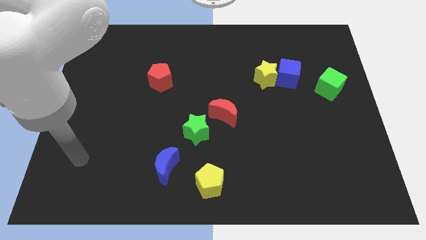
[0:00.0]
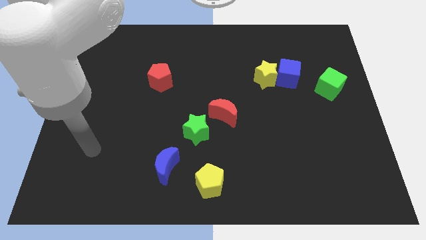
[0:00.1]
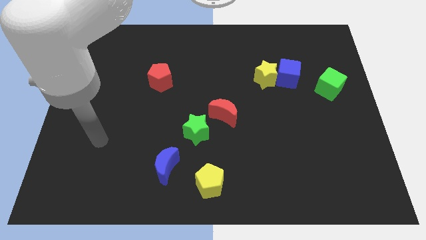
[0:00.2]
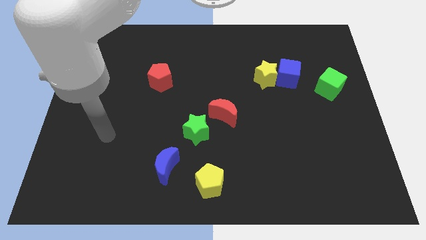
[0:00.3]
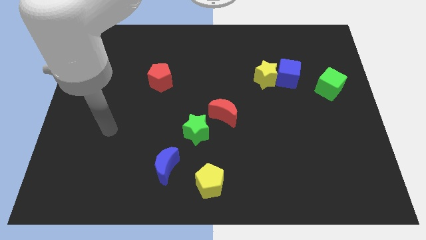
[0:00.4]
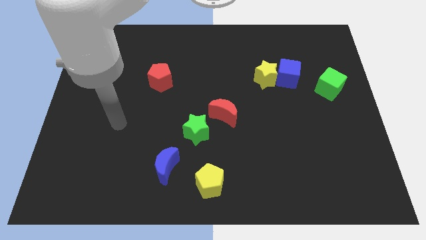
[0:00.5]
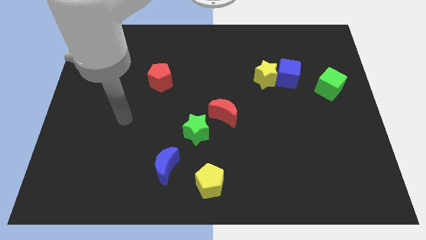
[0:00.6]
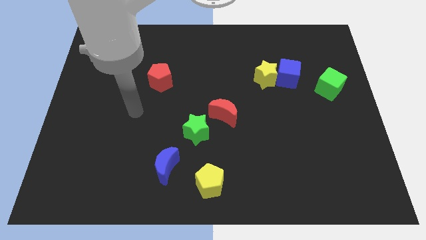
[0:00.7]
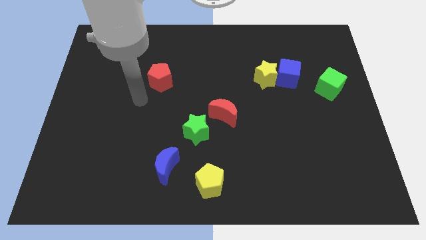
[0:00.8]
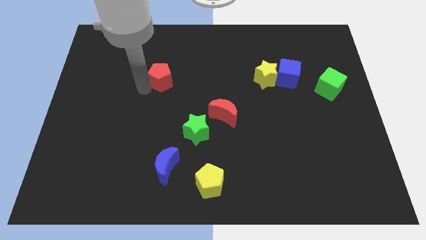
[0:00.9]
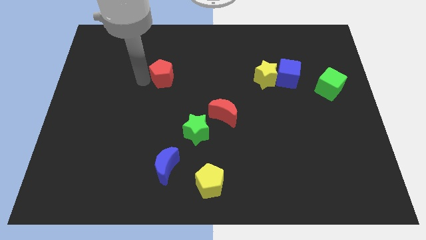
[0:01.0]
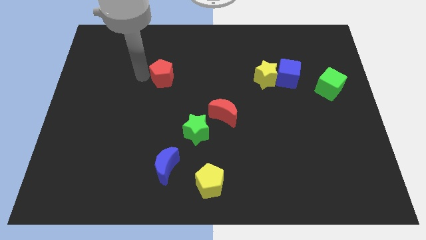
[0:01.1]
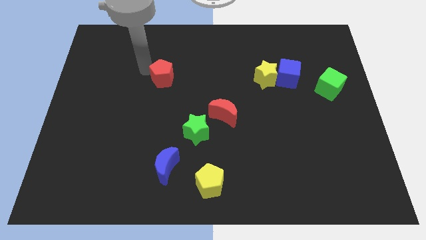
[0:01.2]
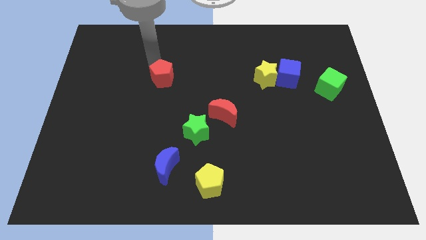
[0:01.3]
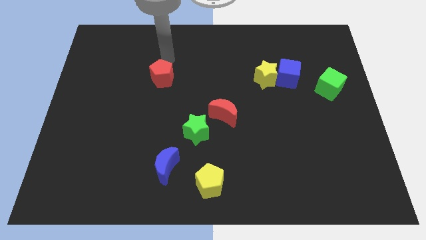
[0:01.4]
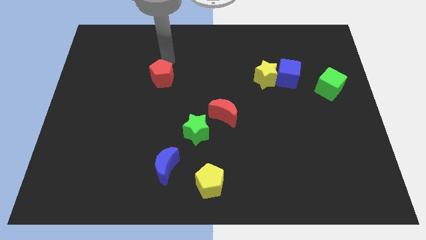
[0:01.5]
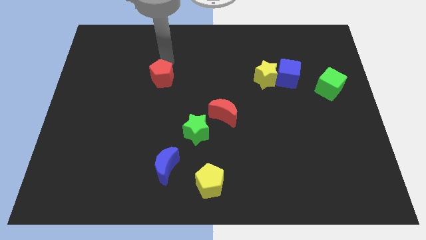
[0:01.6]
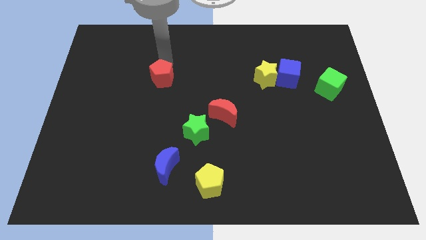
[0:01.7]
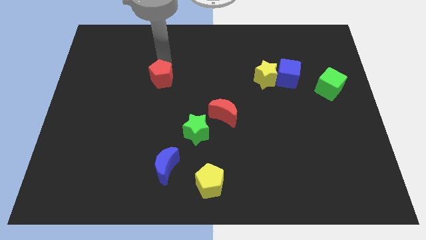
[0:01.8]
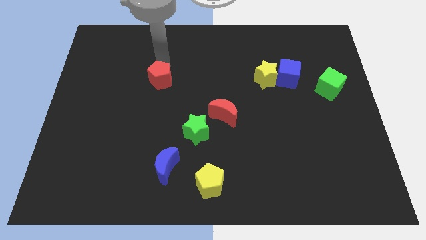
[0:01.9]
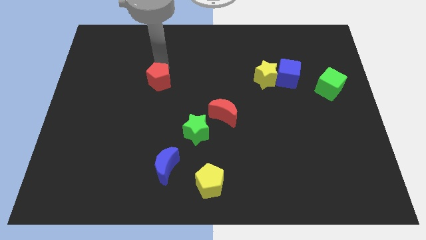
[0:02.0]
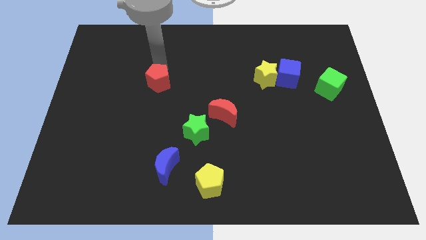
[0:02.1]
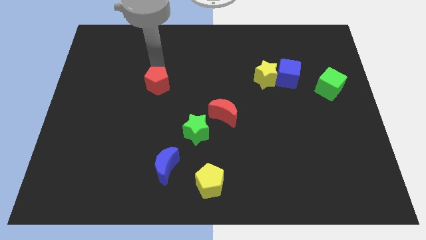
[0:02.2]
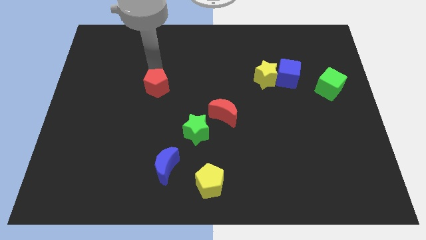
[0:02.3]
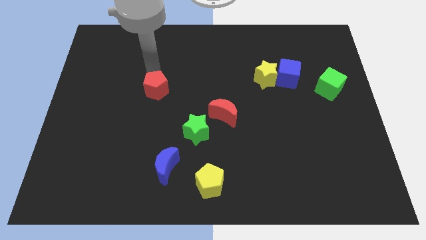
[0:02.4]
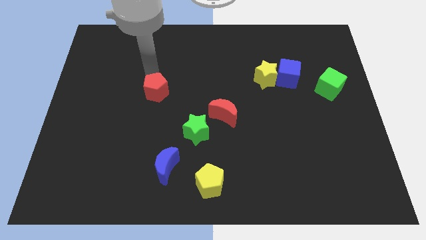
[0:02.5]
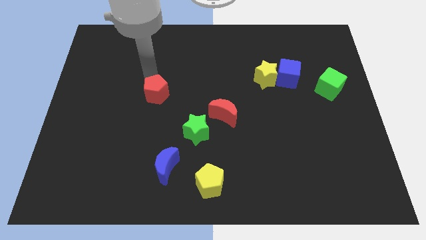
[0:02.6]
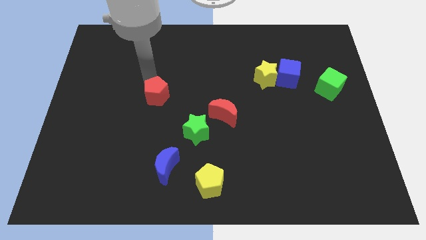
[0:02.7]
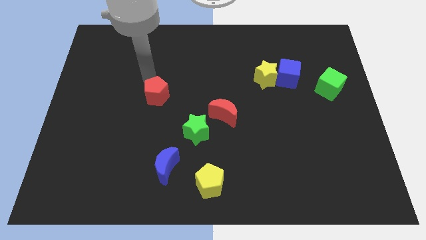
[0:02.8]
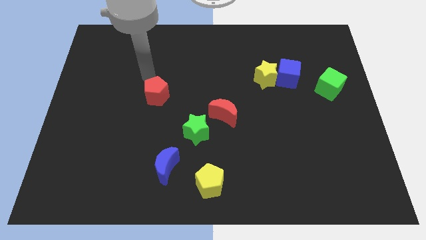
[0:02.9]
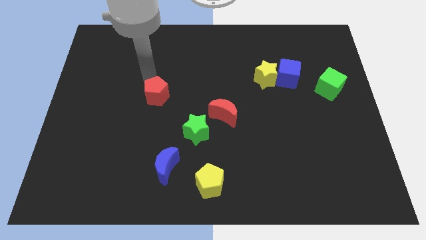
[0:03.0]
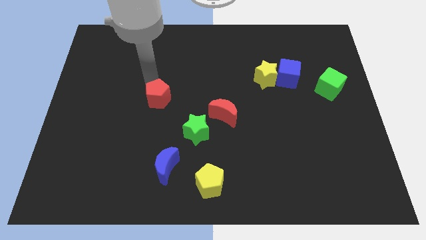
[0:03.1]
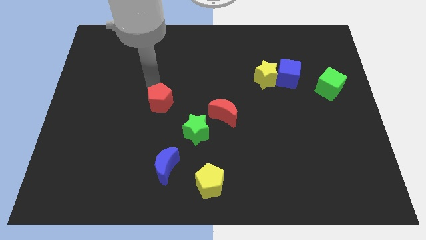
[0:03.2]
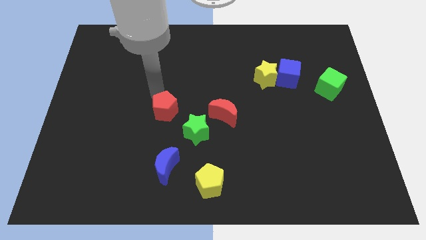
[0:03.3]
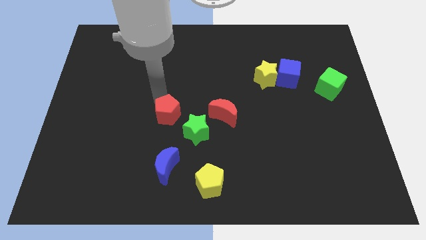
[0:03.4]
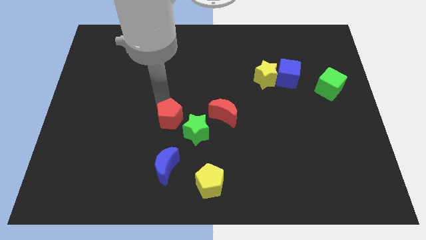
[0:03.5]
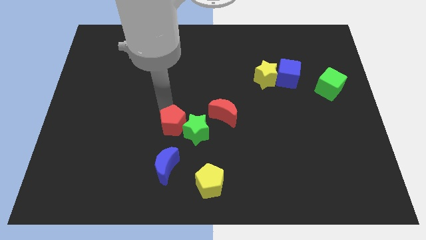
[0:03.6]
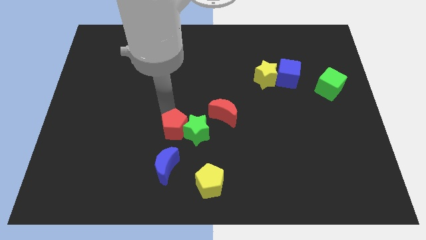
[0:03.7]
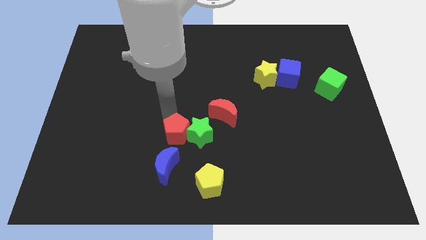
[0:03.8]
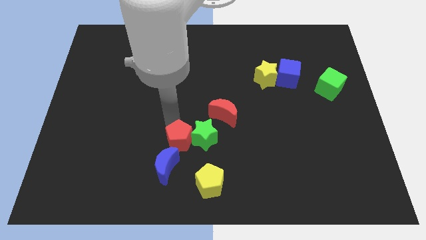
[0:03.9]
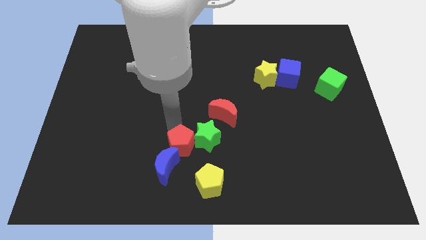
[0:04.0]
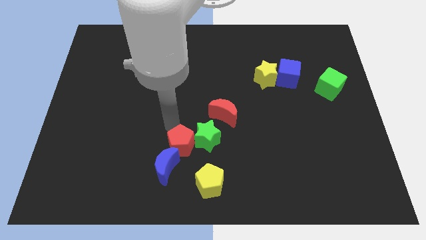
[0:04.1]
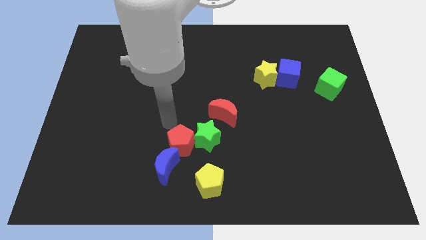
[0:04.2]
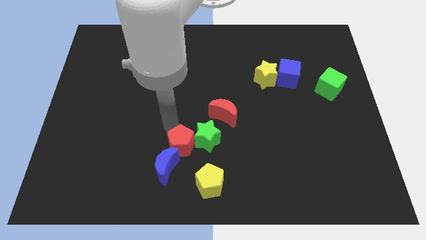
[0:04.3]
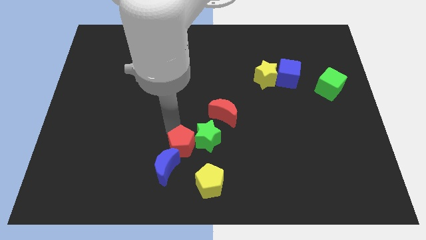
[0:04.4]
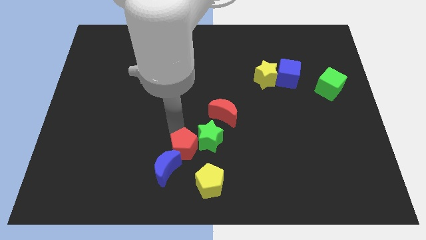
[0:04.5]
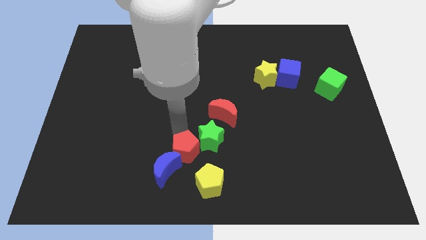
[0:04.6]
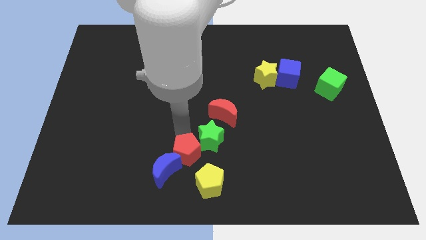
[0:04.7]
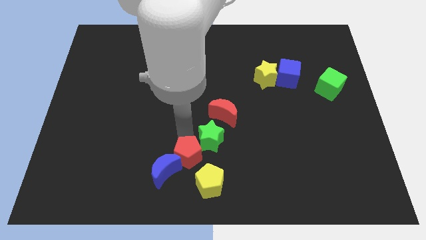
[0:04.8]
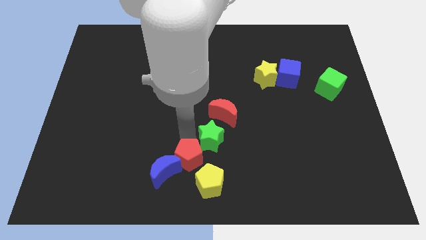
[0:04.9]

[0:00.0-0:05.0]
push the red pentagon to the bottom

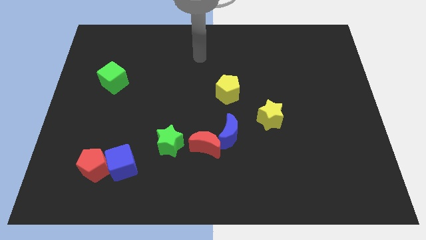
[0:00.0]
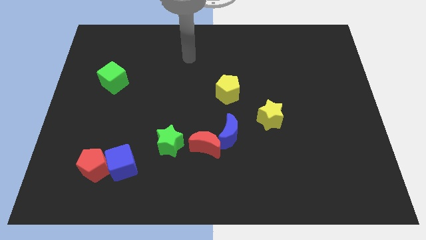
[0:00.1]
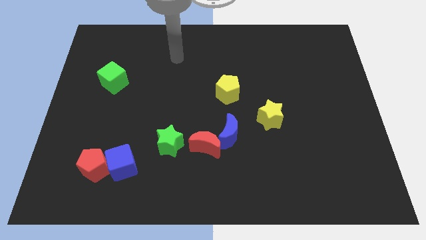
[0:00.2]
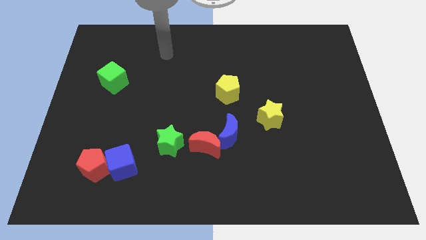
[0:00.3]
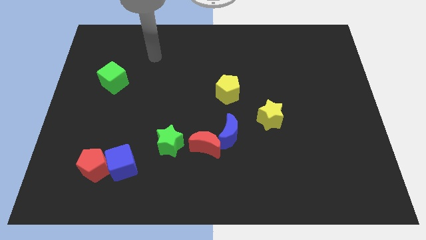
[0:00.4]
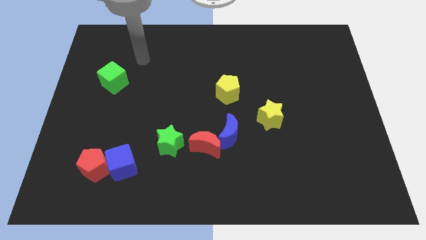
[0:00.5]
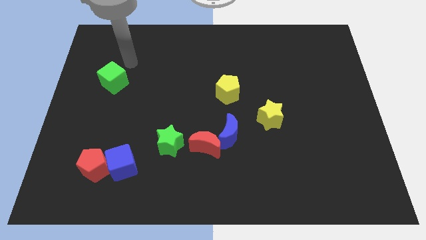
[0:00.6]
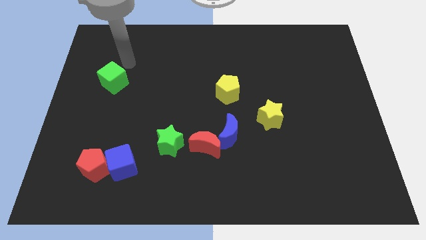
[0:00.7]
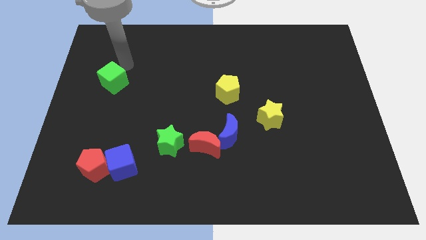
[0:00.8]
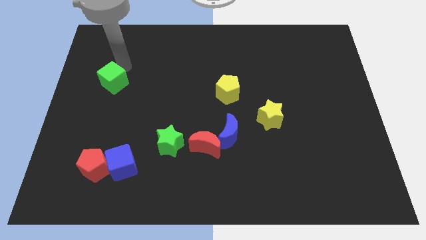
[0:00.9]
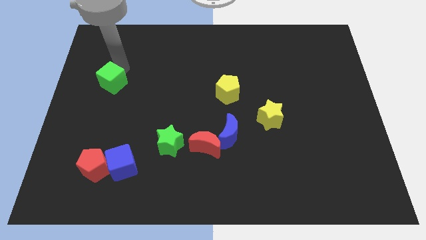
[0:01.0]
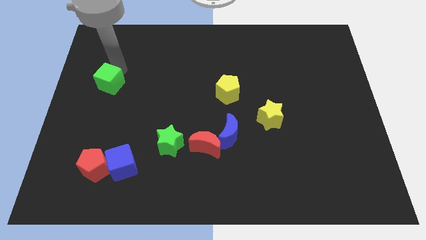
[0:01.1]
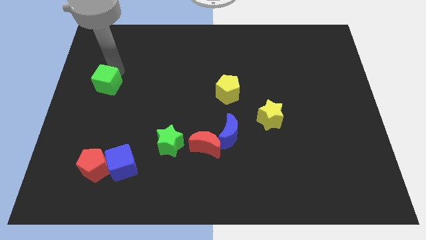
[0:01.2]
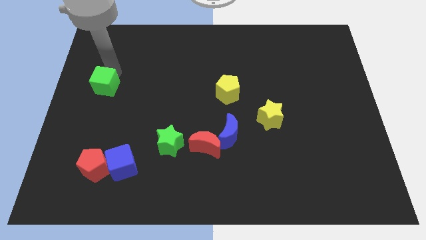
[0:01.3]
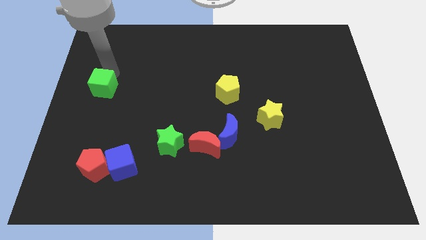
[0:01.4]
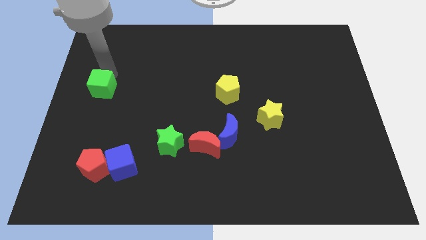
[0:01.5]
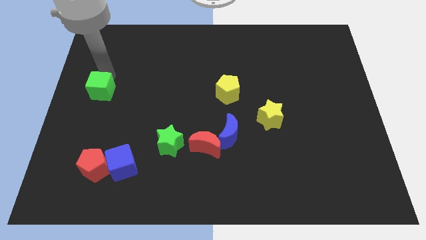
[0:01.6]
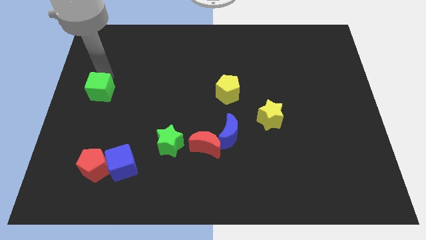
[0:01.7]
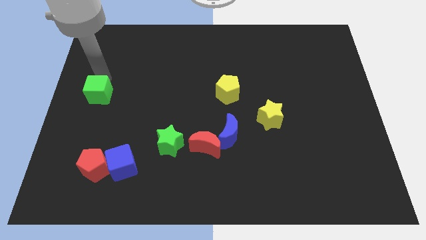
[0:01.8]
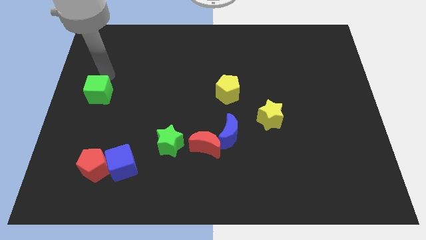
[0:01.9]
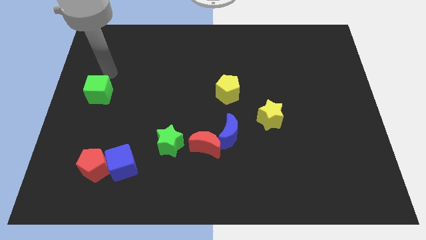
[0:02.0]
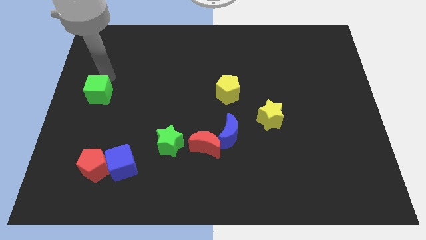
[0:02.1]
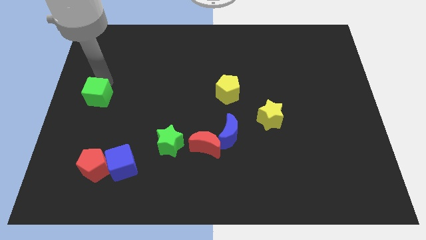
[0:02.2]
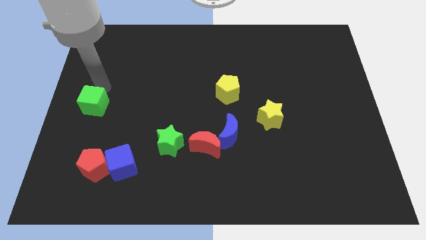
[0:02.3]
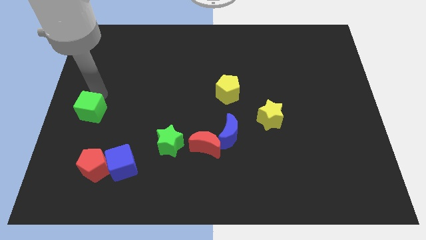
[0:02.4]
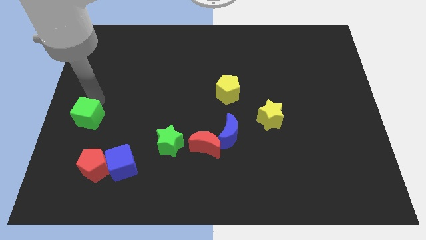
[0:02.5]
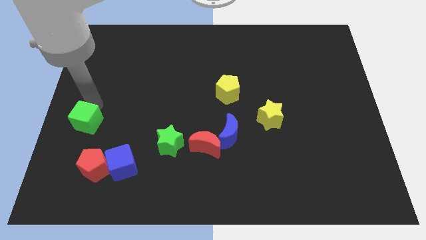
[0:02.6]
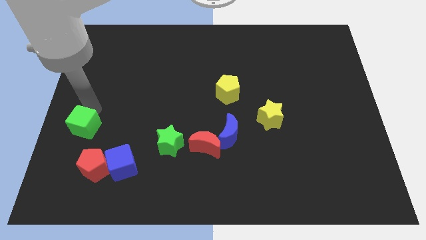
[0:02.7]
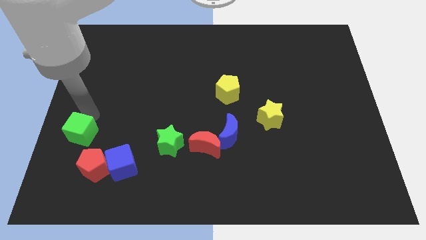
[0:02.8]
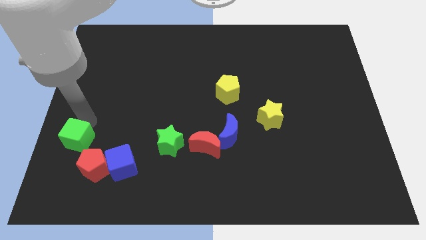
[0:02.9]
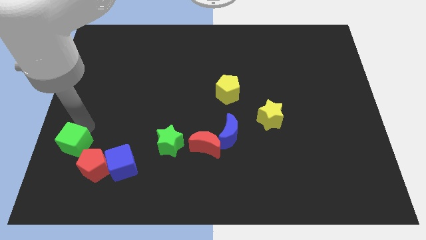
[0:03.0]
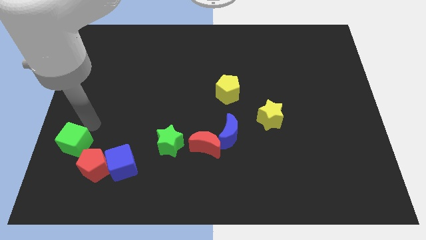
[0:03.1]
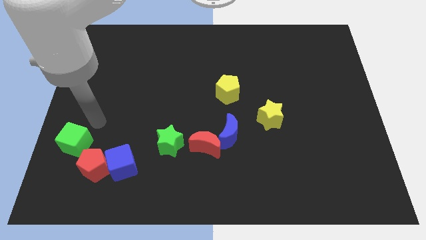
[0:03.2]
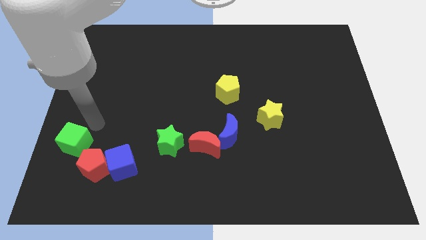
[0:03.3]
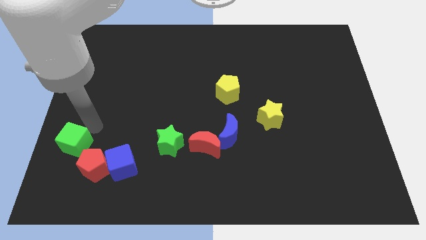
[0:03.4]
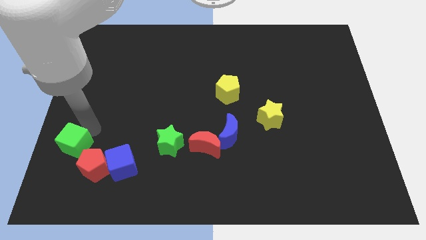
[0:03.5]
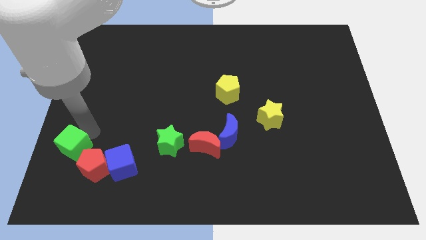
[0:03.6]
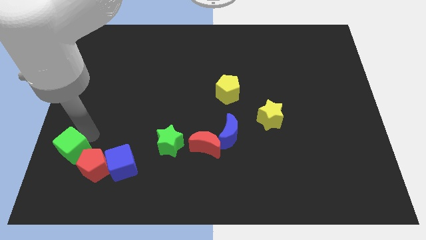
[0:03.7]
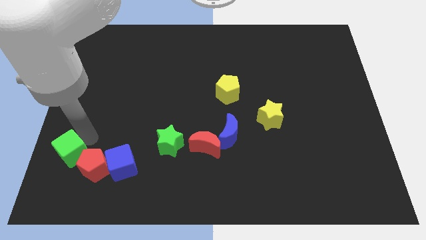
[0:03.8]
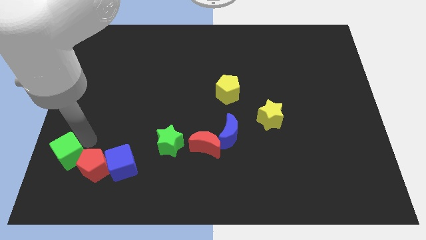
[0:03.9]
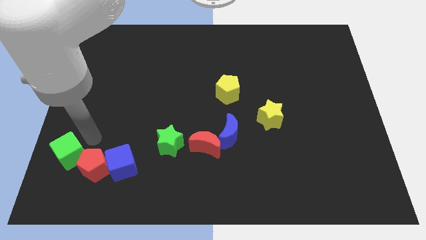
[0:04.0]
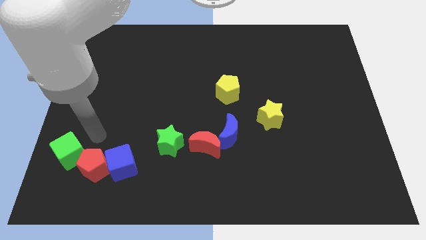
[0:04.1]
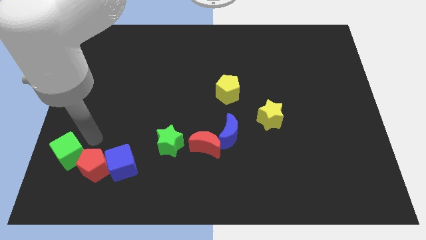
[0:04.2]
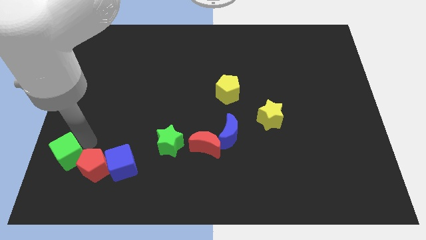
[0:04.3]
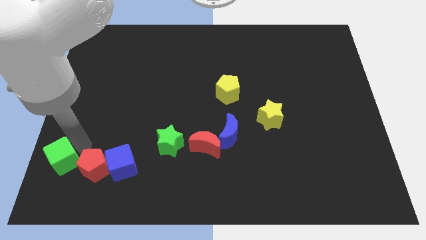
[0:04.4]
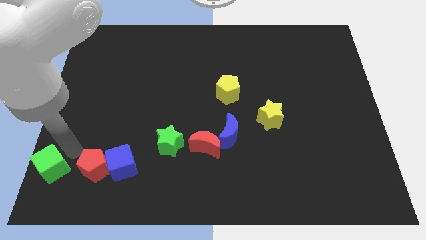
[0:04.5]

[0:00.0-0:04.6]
put the green cube to the bottom left of the board
